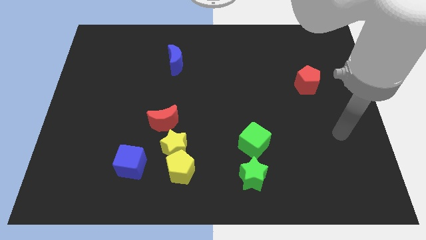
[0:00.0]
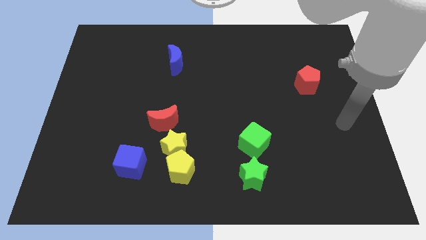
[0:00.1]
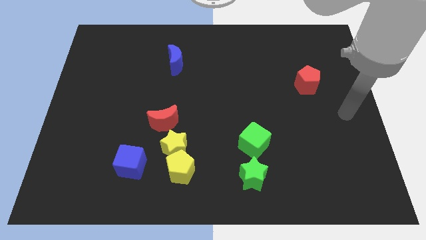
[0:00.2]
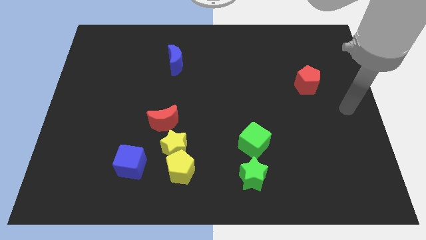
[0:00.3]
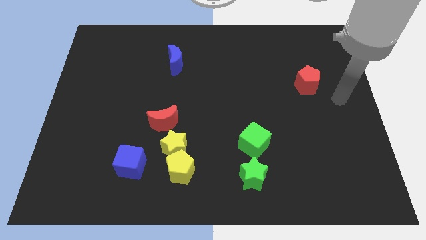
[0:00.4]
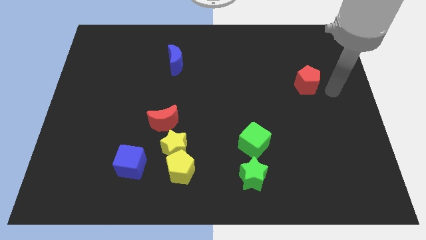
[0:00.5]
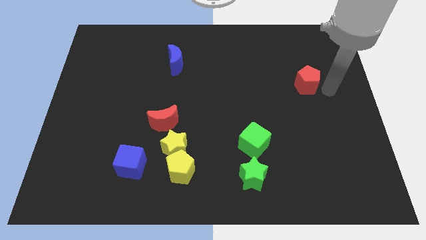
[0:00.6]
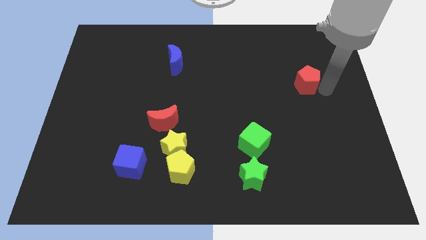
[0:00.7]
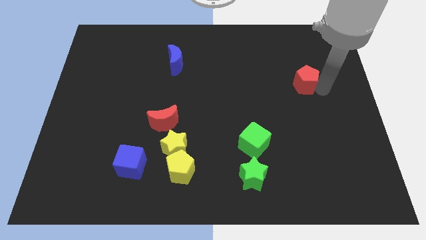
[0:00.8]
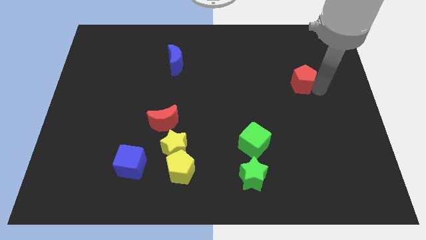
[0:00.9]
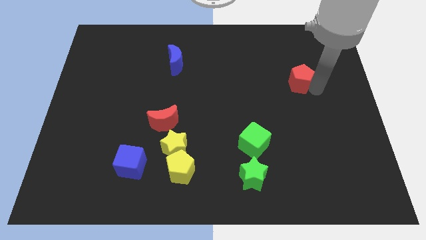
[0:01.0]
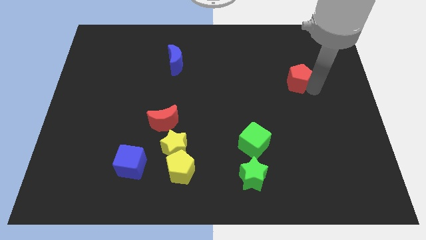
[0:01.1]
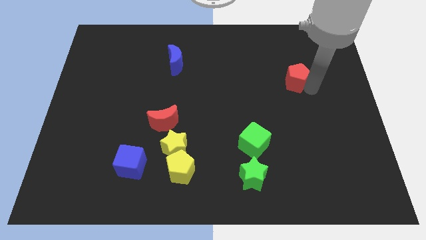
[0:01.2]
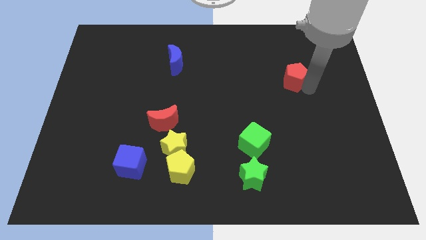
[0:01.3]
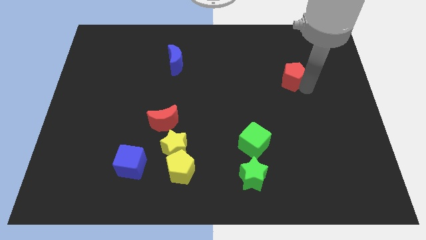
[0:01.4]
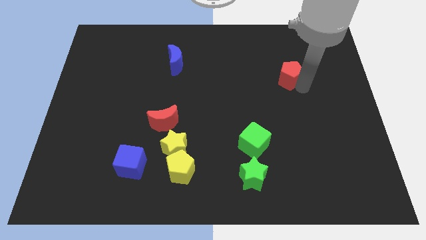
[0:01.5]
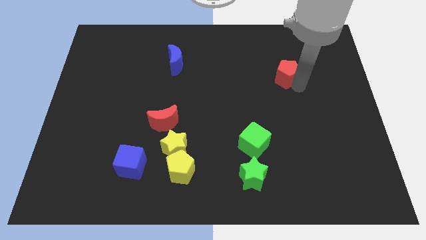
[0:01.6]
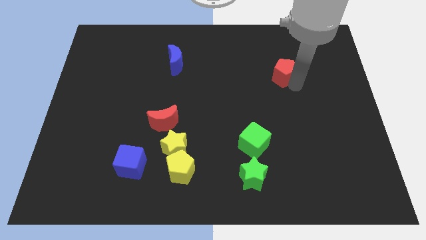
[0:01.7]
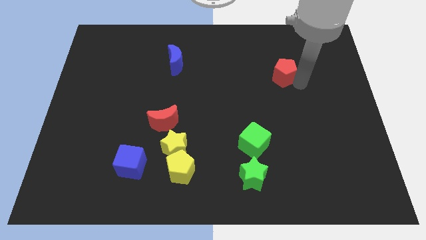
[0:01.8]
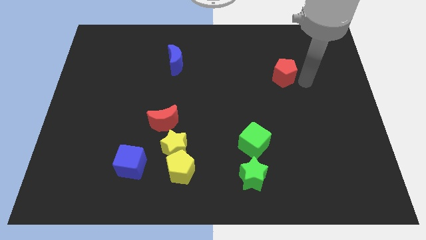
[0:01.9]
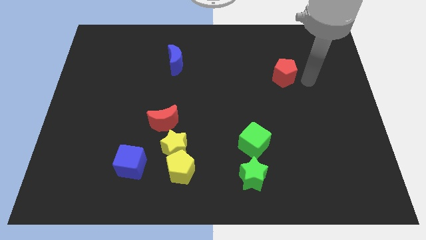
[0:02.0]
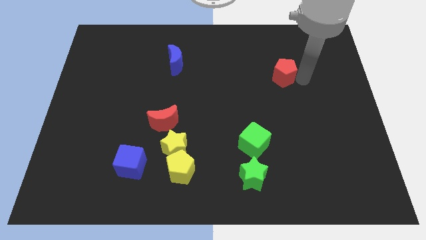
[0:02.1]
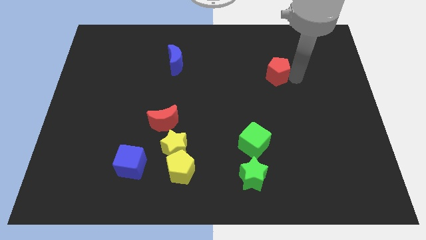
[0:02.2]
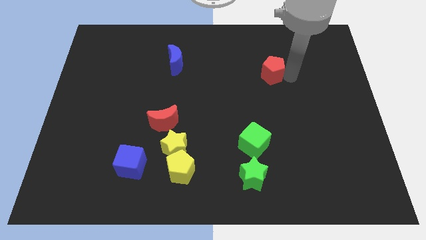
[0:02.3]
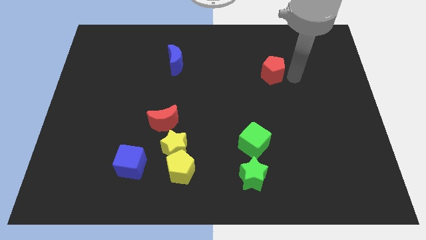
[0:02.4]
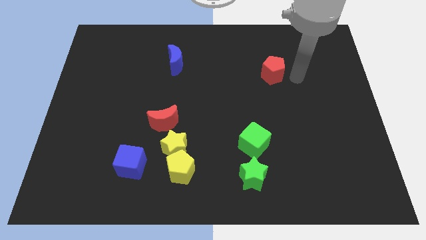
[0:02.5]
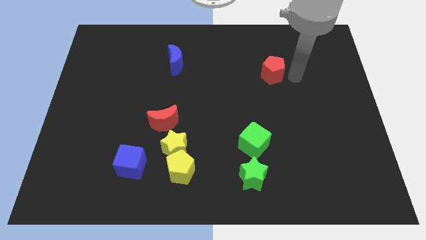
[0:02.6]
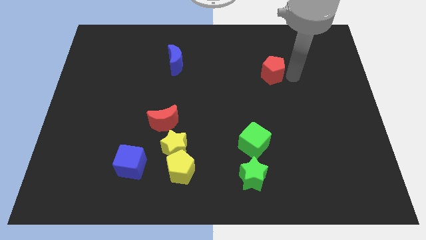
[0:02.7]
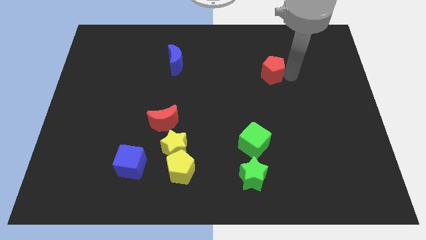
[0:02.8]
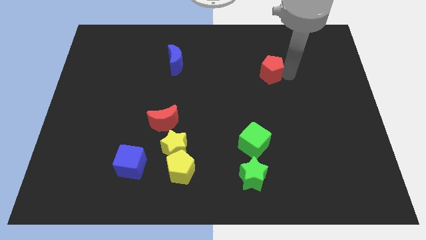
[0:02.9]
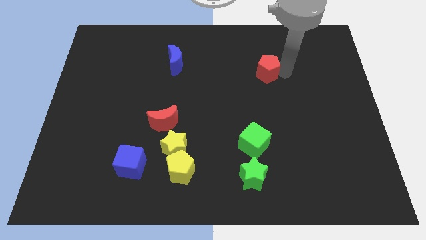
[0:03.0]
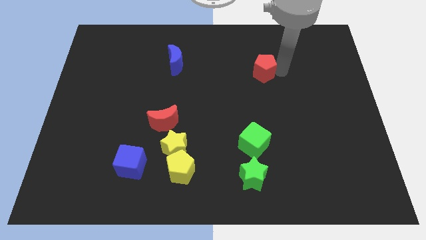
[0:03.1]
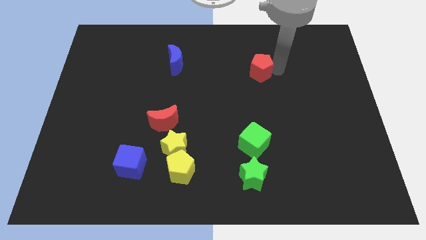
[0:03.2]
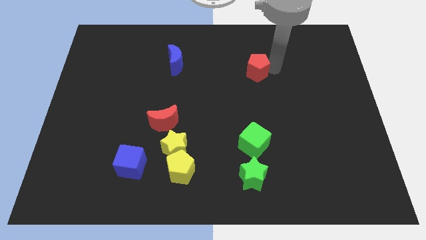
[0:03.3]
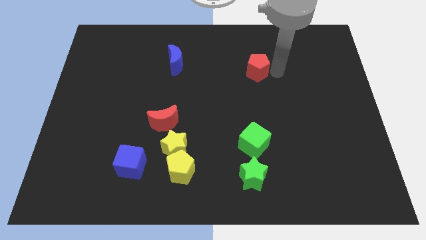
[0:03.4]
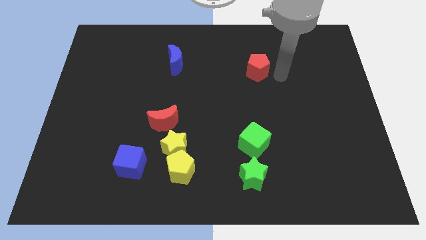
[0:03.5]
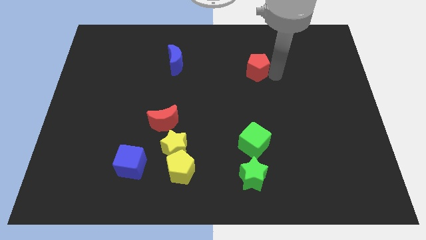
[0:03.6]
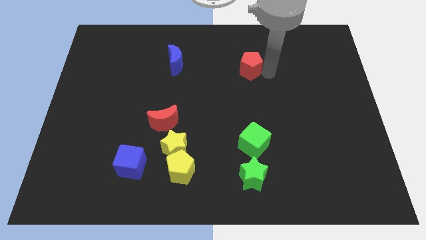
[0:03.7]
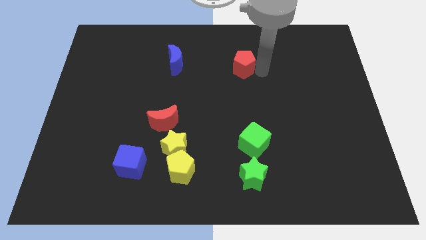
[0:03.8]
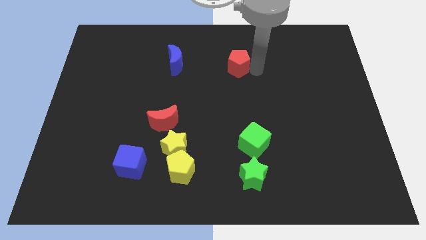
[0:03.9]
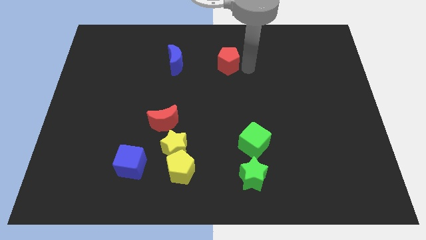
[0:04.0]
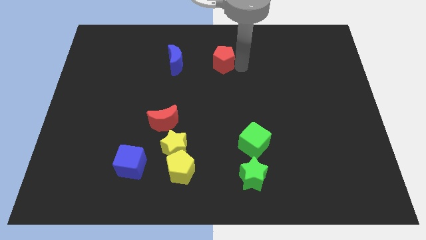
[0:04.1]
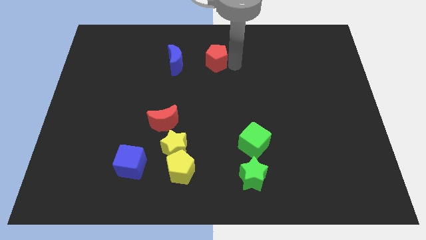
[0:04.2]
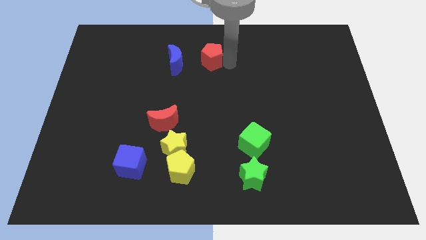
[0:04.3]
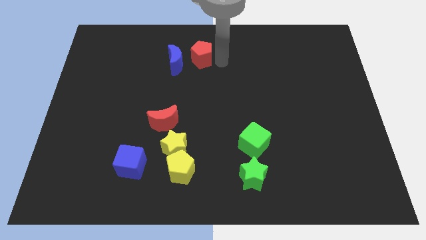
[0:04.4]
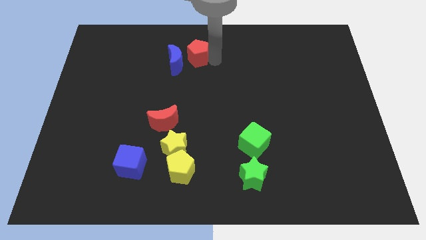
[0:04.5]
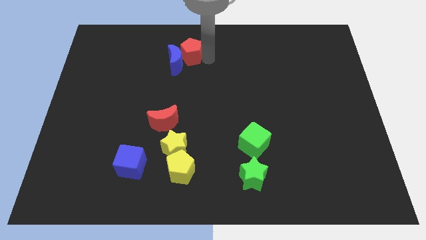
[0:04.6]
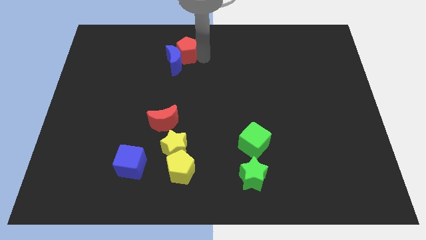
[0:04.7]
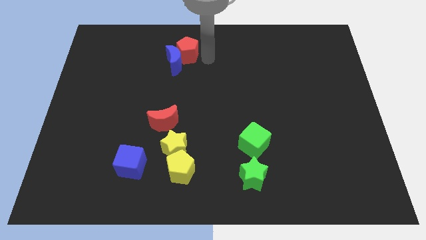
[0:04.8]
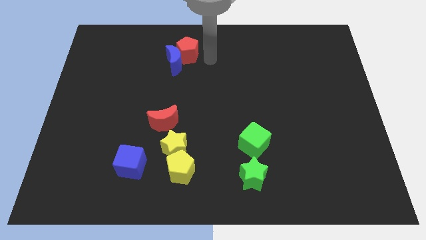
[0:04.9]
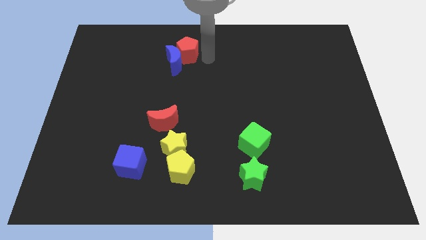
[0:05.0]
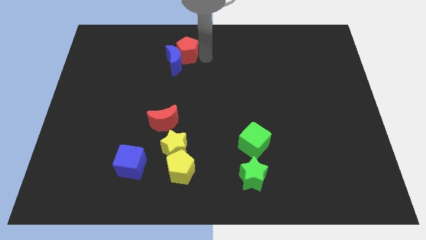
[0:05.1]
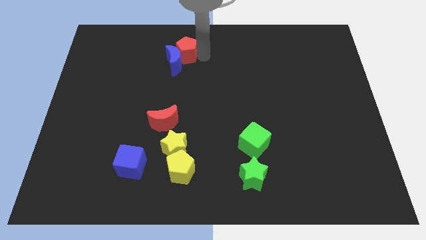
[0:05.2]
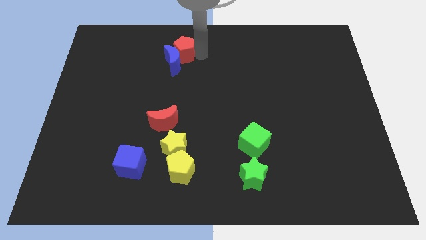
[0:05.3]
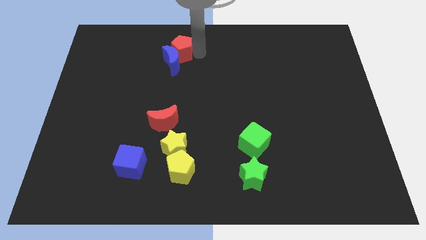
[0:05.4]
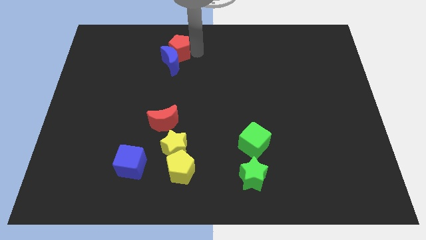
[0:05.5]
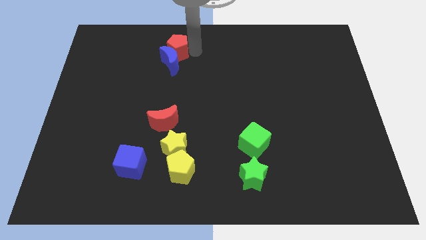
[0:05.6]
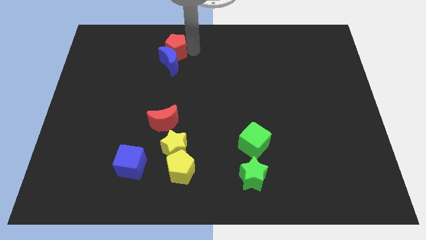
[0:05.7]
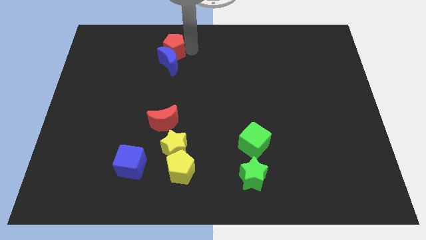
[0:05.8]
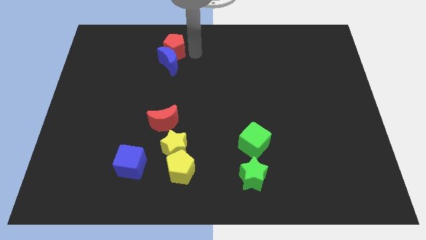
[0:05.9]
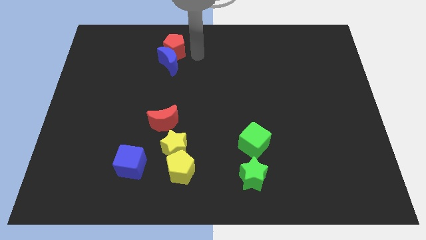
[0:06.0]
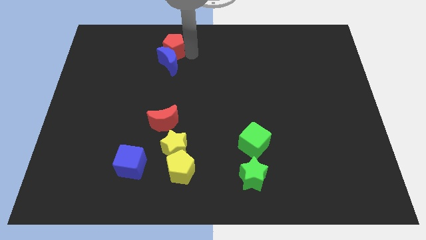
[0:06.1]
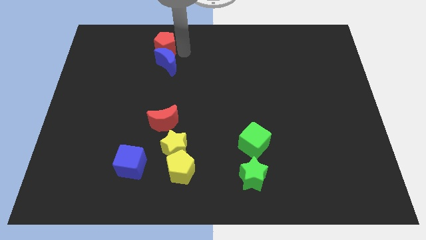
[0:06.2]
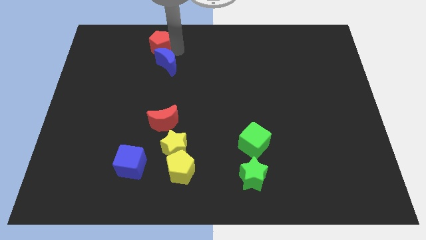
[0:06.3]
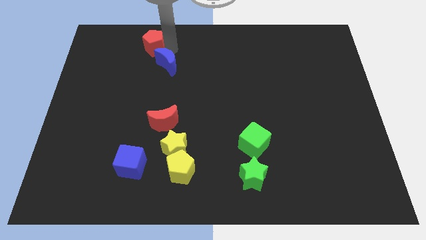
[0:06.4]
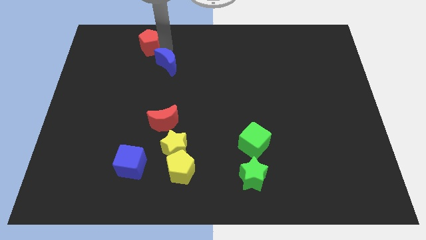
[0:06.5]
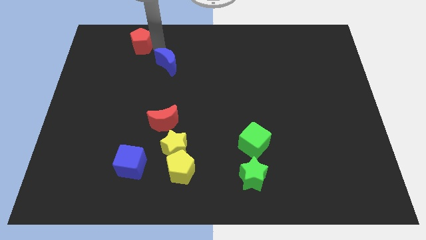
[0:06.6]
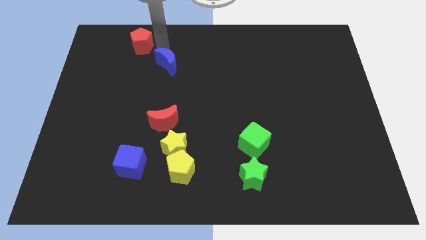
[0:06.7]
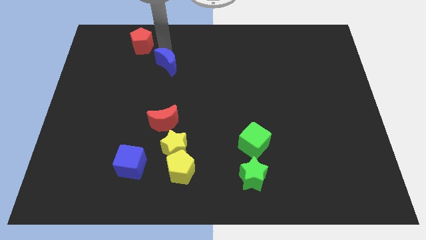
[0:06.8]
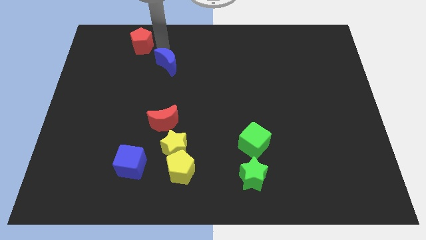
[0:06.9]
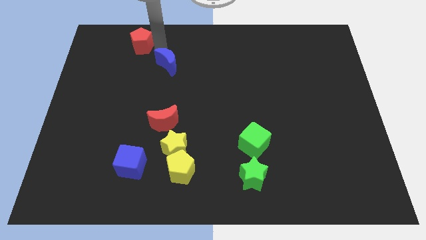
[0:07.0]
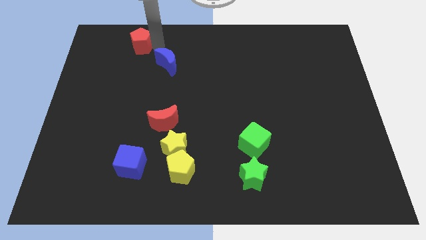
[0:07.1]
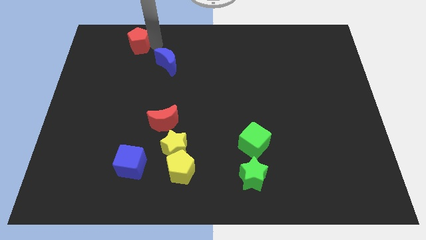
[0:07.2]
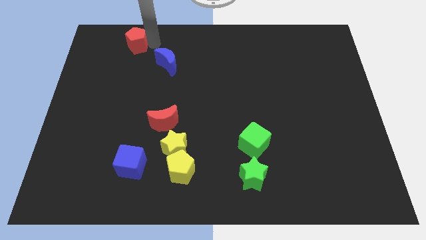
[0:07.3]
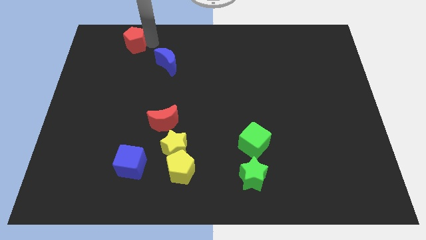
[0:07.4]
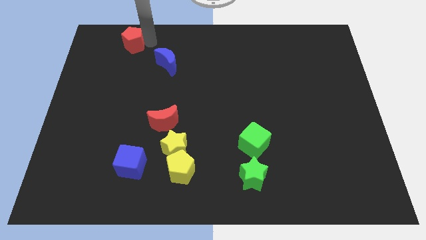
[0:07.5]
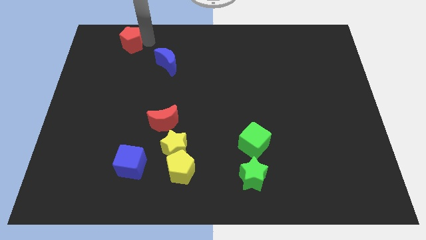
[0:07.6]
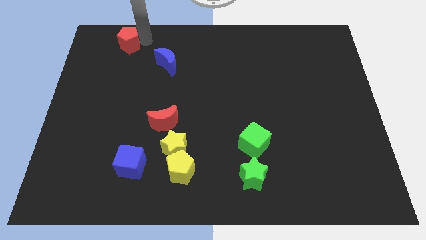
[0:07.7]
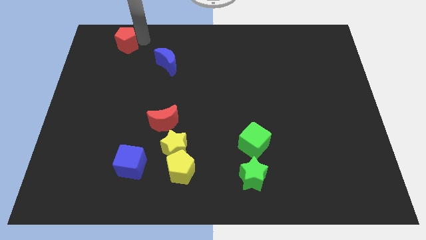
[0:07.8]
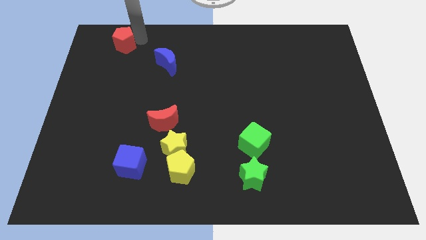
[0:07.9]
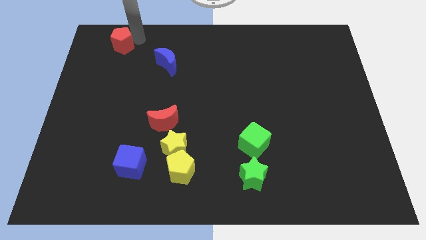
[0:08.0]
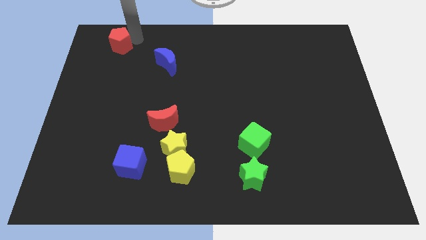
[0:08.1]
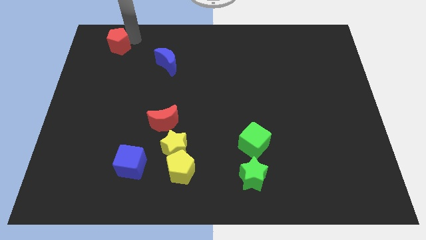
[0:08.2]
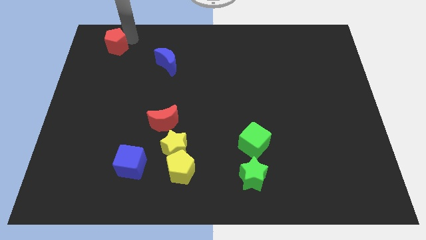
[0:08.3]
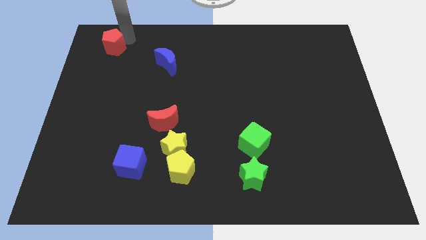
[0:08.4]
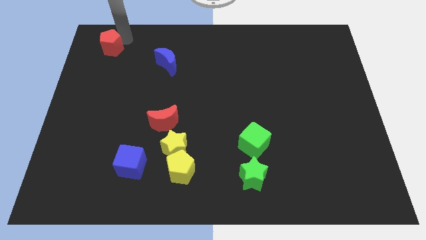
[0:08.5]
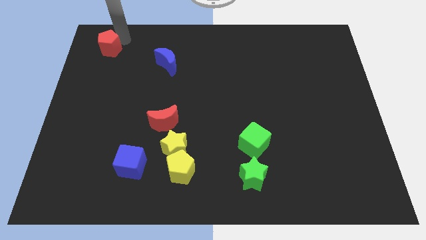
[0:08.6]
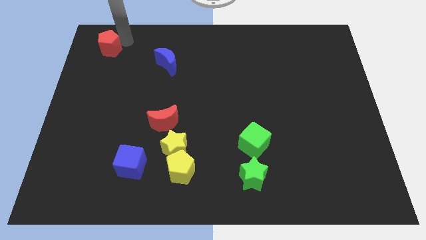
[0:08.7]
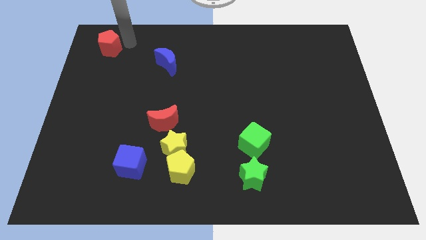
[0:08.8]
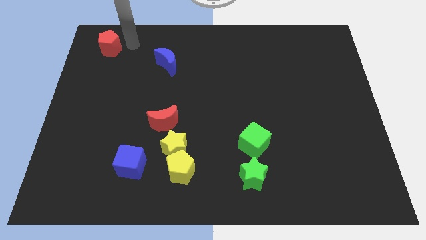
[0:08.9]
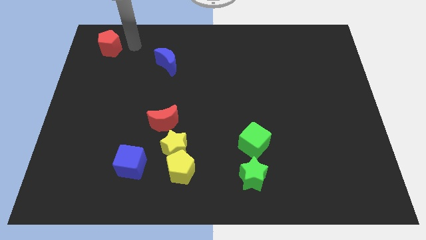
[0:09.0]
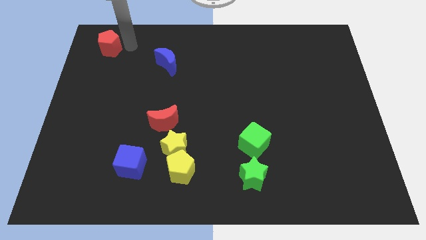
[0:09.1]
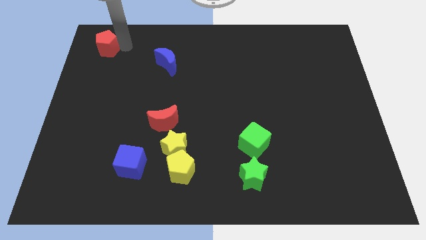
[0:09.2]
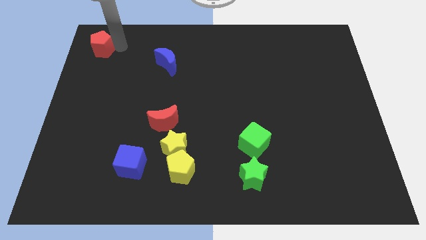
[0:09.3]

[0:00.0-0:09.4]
move the red pentagon to the top left of the board
